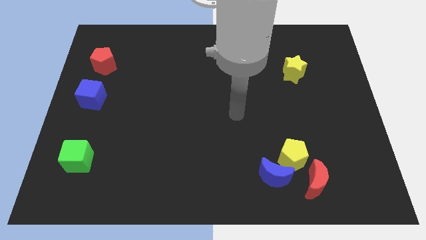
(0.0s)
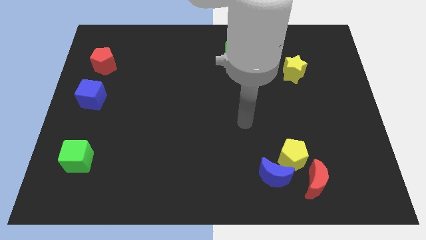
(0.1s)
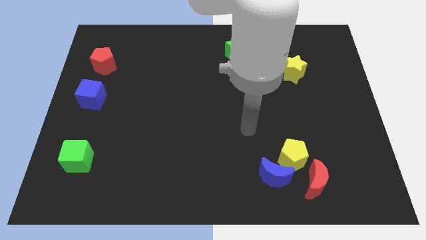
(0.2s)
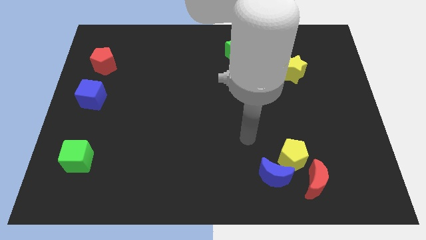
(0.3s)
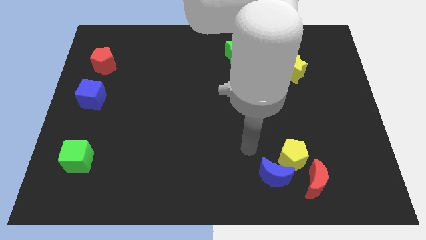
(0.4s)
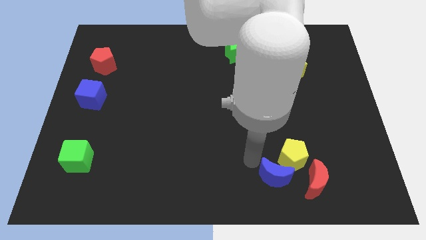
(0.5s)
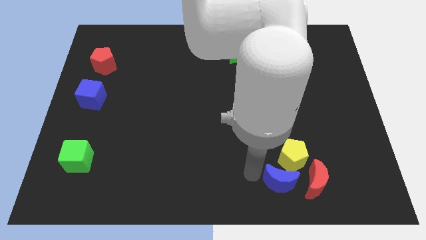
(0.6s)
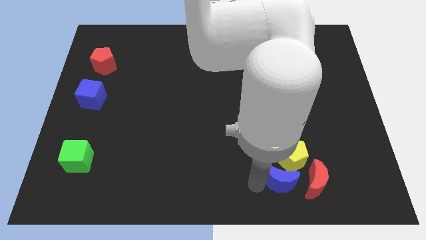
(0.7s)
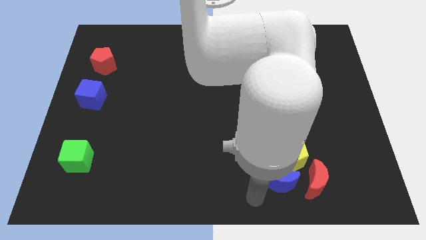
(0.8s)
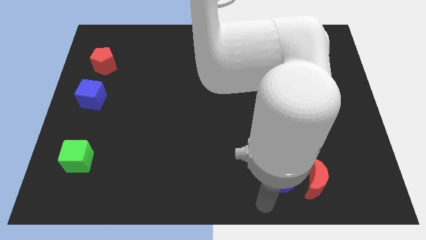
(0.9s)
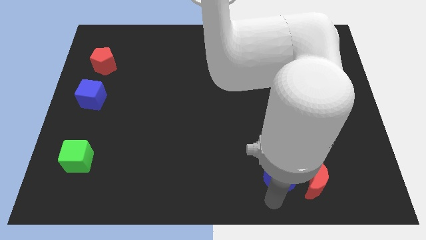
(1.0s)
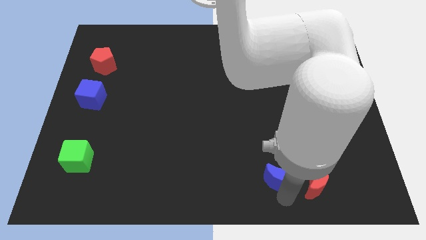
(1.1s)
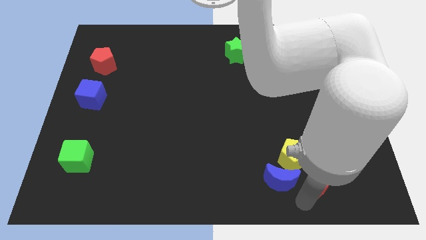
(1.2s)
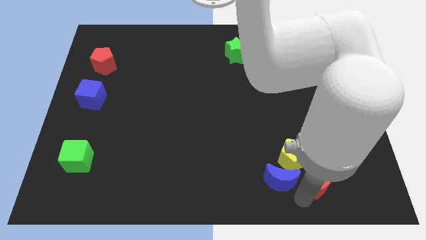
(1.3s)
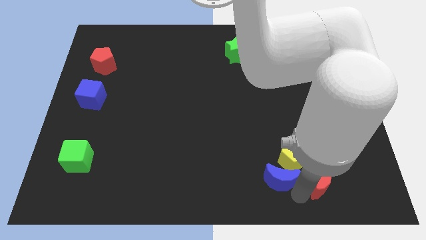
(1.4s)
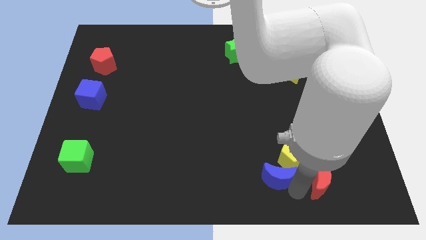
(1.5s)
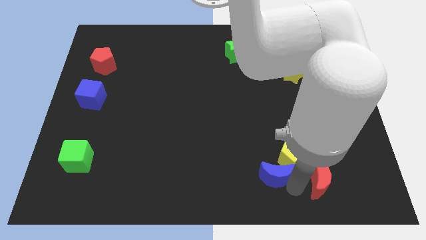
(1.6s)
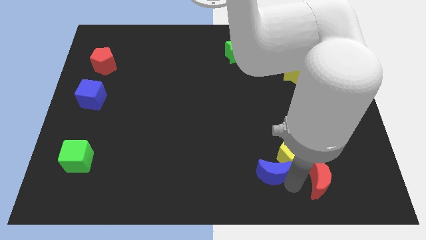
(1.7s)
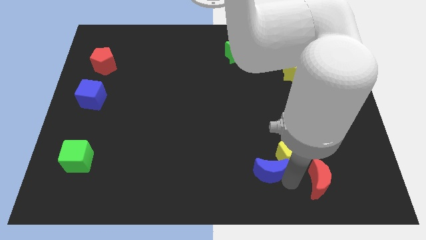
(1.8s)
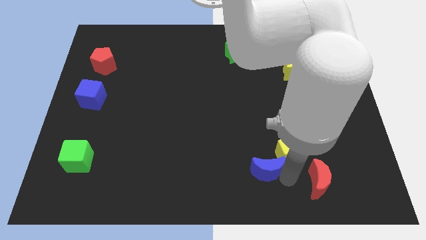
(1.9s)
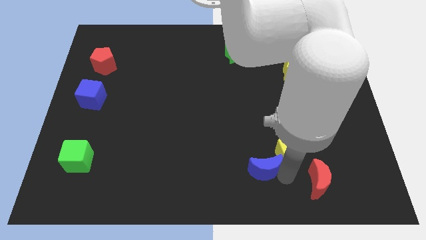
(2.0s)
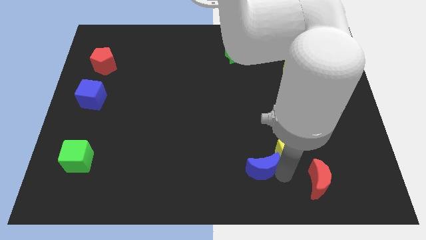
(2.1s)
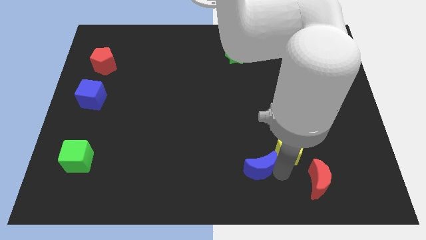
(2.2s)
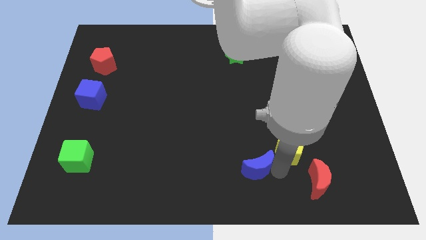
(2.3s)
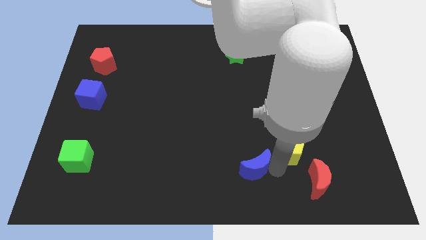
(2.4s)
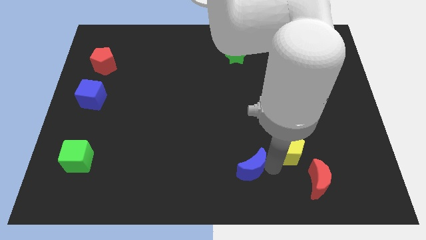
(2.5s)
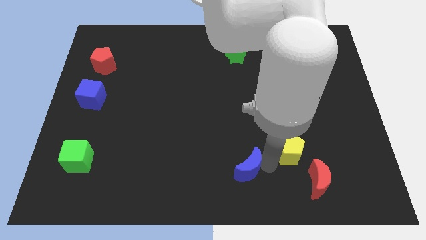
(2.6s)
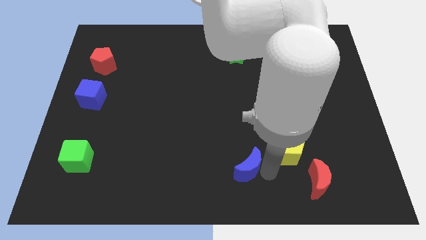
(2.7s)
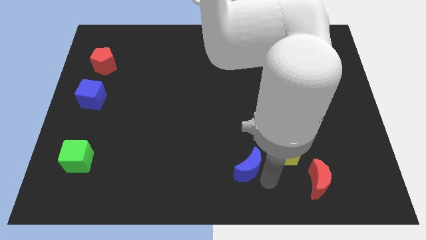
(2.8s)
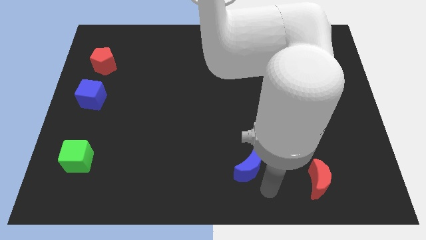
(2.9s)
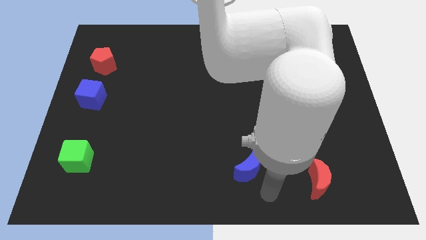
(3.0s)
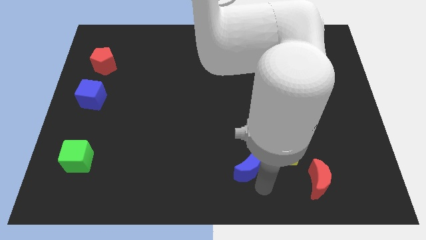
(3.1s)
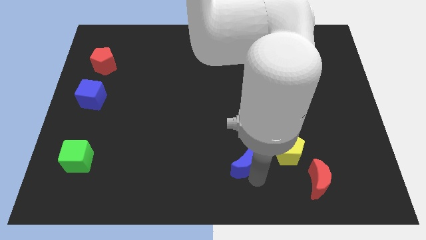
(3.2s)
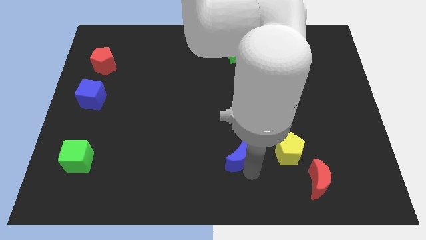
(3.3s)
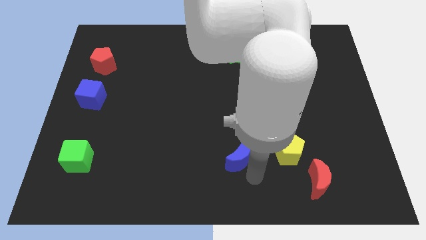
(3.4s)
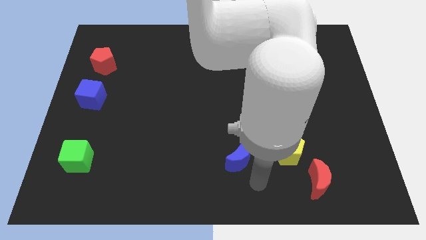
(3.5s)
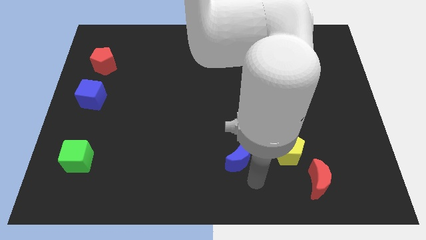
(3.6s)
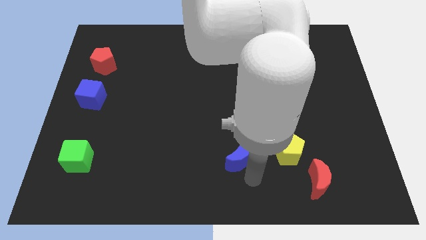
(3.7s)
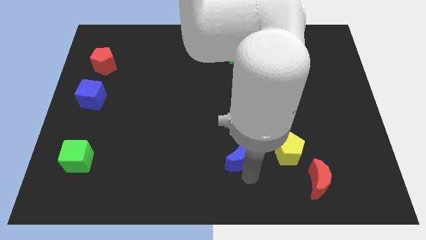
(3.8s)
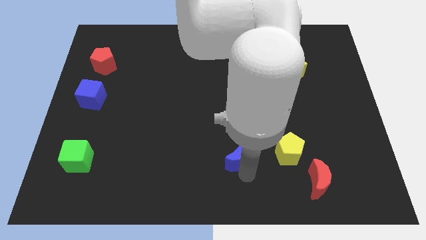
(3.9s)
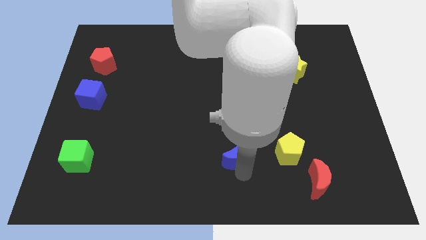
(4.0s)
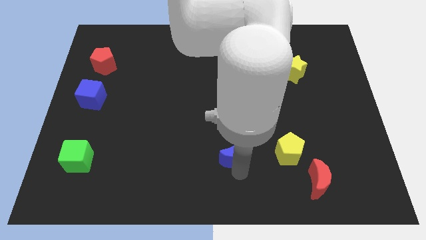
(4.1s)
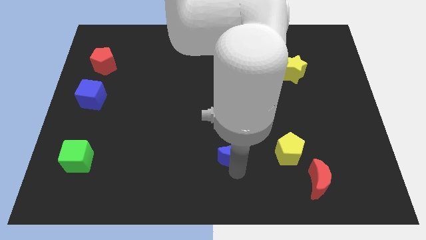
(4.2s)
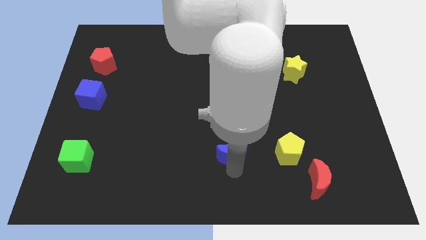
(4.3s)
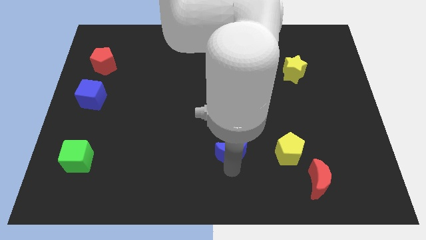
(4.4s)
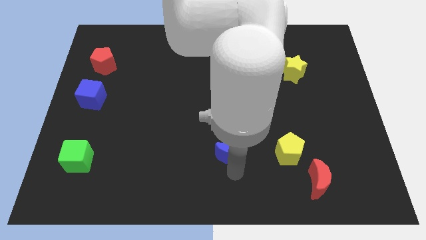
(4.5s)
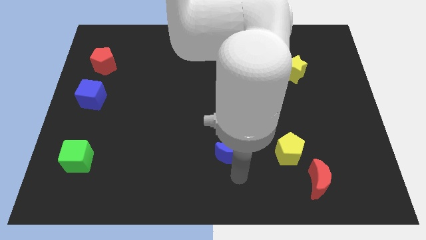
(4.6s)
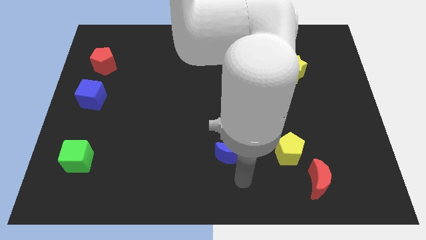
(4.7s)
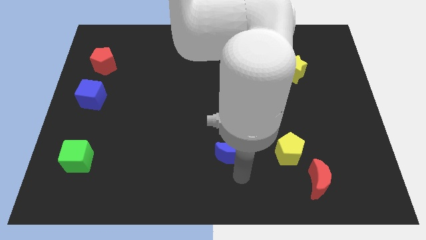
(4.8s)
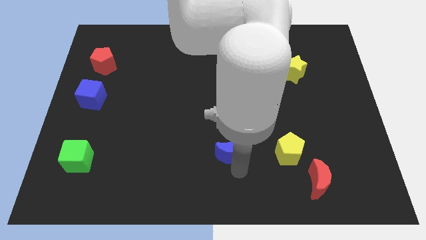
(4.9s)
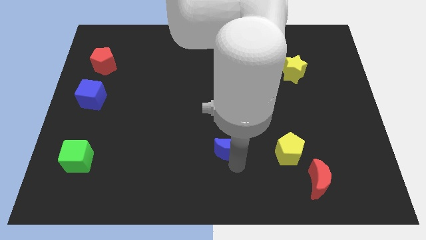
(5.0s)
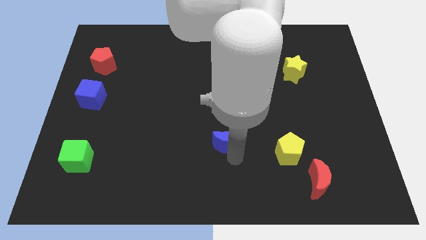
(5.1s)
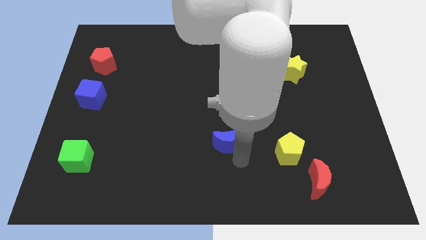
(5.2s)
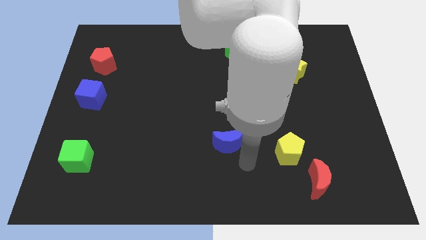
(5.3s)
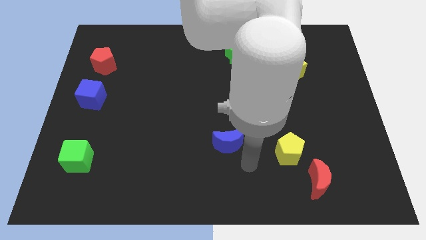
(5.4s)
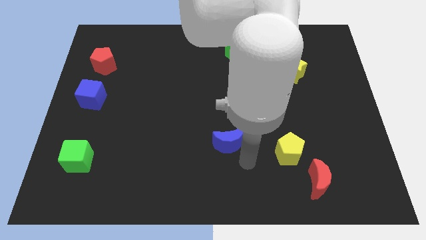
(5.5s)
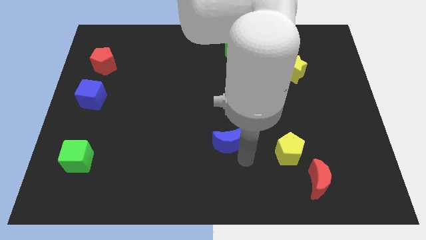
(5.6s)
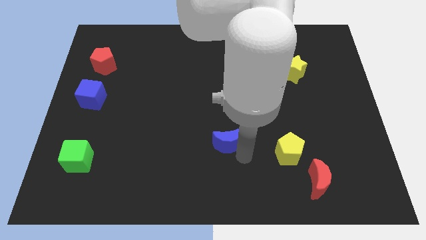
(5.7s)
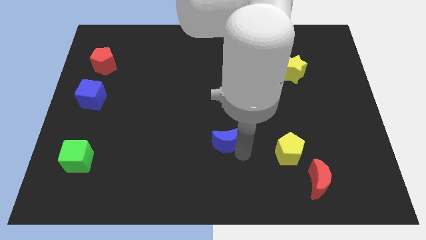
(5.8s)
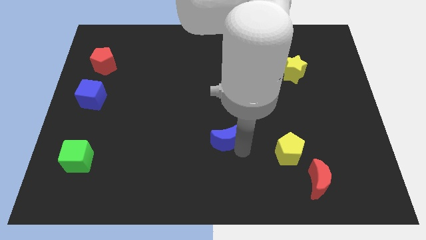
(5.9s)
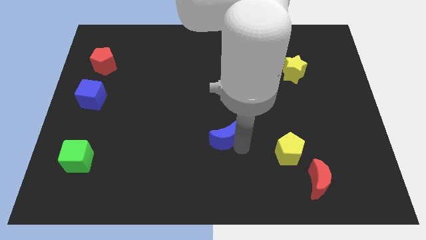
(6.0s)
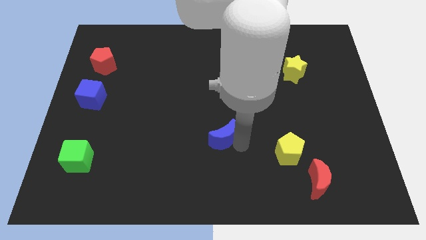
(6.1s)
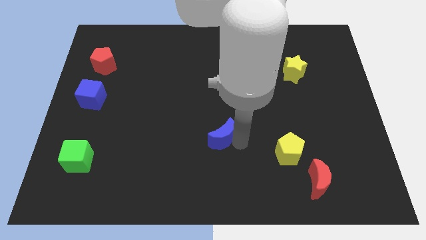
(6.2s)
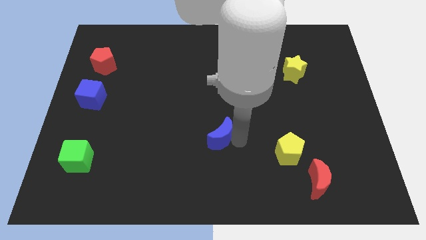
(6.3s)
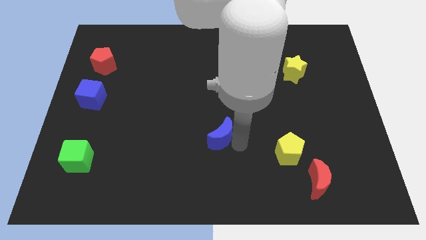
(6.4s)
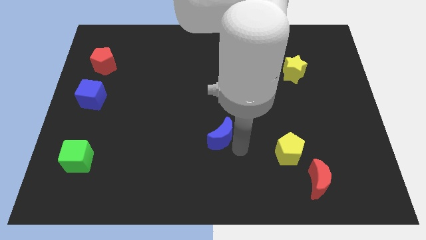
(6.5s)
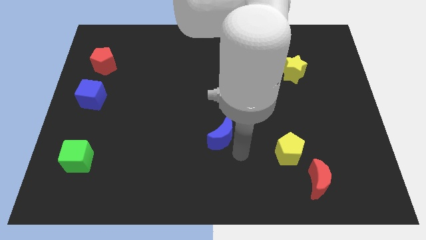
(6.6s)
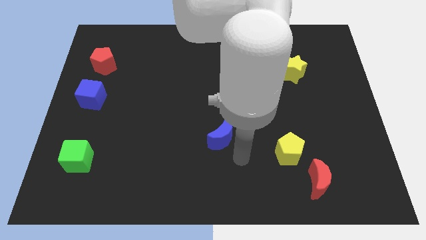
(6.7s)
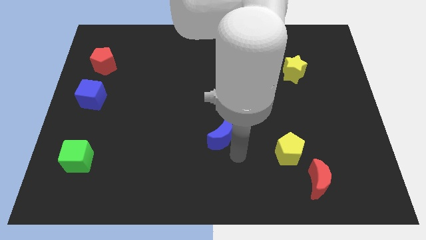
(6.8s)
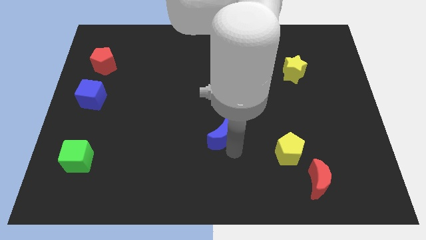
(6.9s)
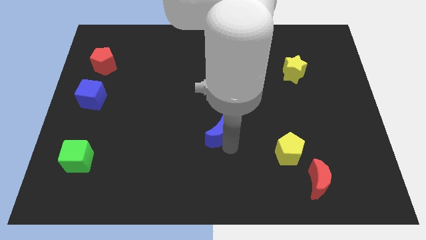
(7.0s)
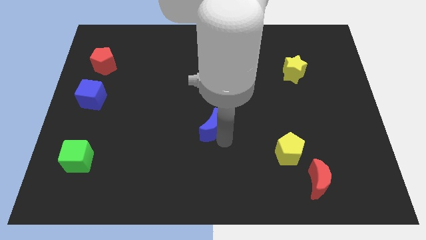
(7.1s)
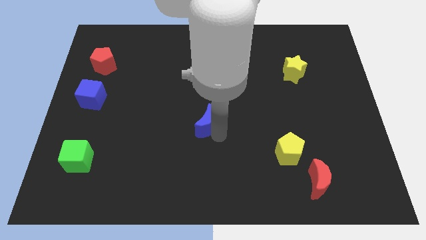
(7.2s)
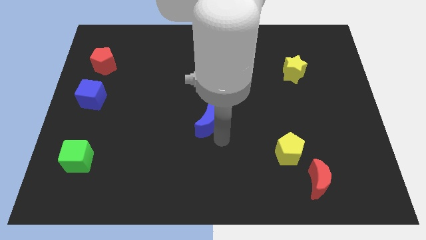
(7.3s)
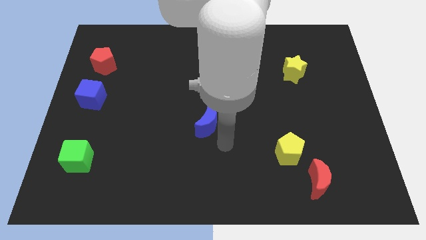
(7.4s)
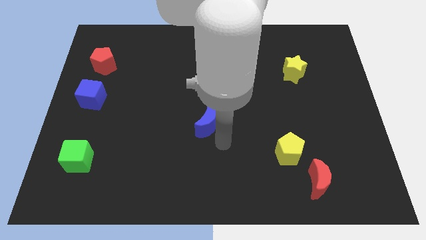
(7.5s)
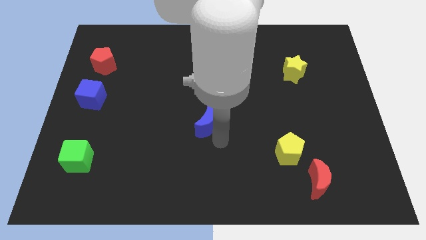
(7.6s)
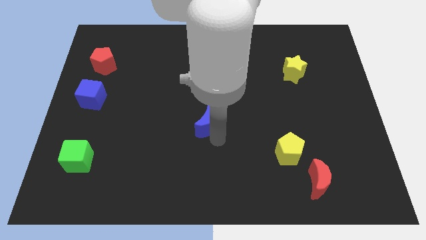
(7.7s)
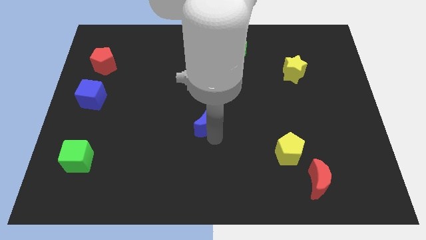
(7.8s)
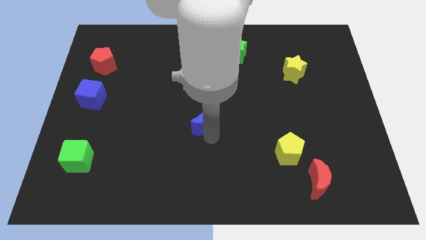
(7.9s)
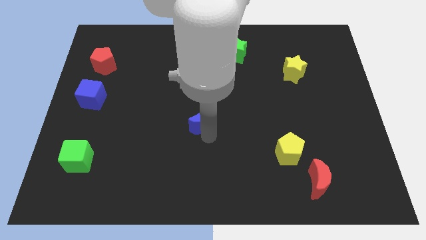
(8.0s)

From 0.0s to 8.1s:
push the blue moon up and then left
